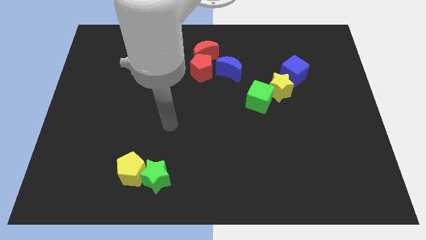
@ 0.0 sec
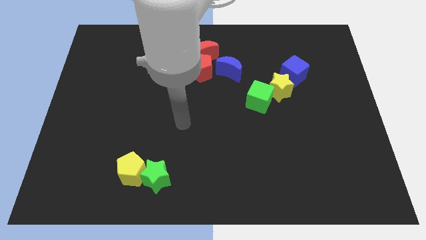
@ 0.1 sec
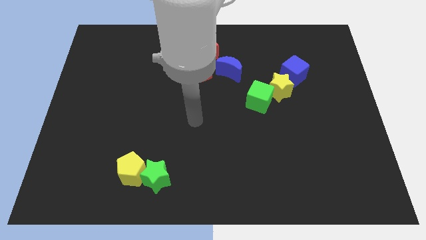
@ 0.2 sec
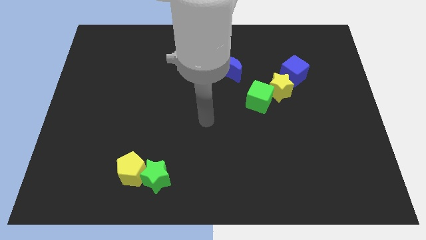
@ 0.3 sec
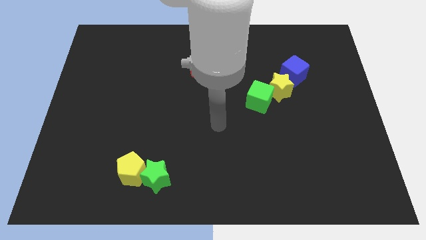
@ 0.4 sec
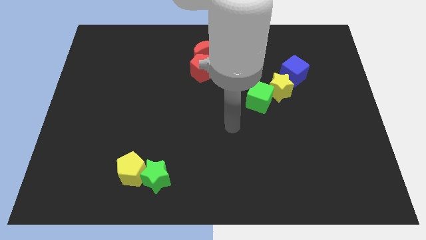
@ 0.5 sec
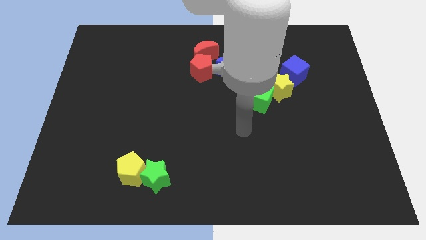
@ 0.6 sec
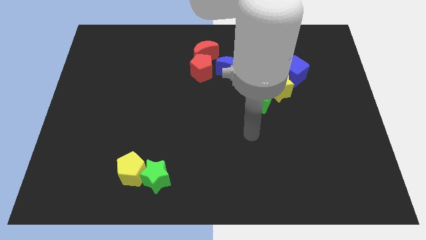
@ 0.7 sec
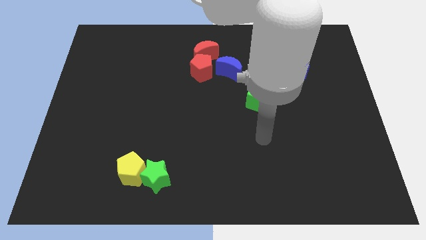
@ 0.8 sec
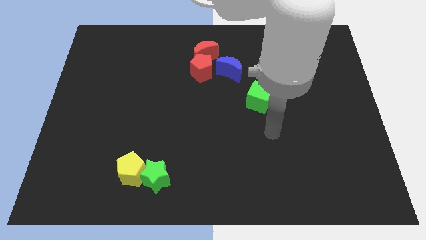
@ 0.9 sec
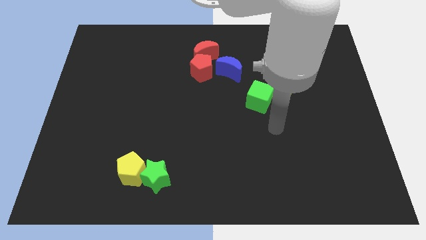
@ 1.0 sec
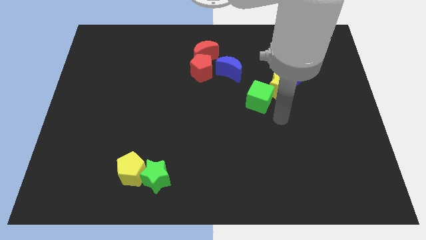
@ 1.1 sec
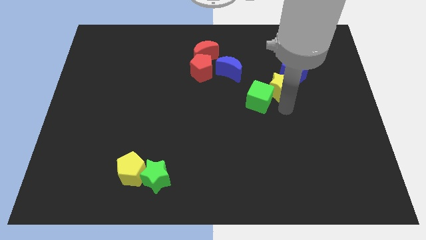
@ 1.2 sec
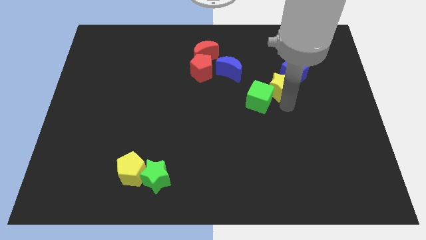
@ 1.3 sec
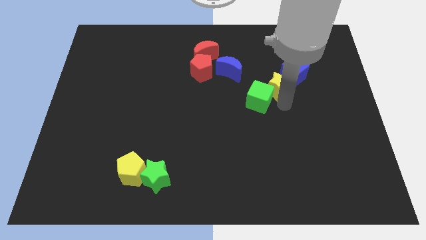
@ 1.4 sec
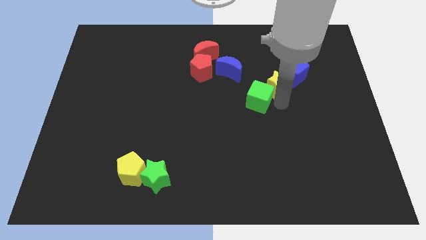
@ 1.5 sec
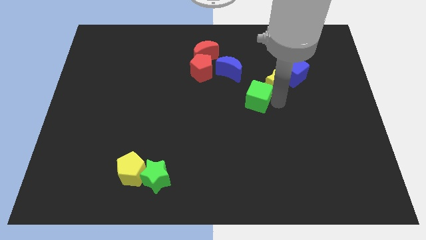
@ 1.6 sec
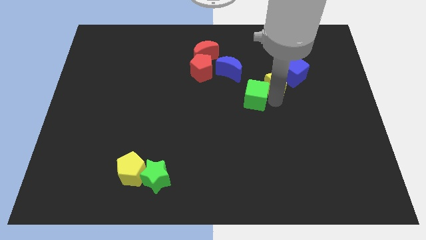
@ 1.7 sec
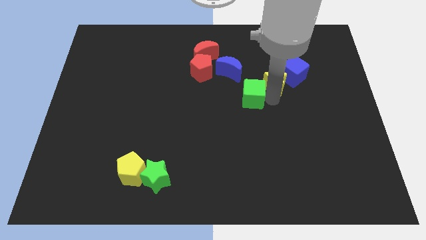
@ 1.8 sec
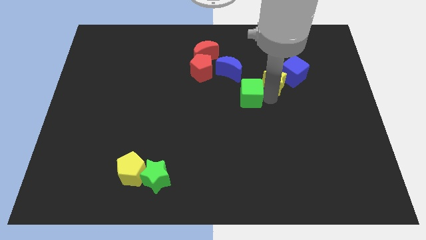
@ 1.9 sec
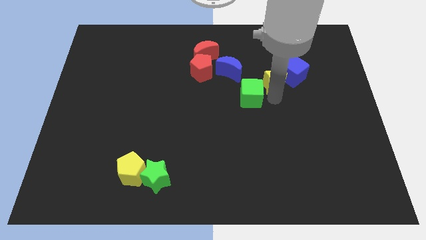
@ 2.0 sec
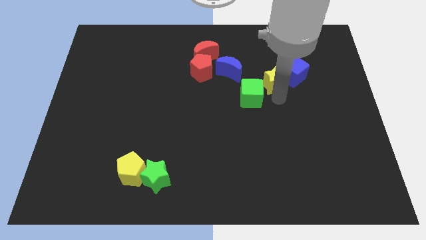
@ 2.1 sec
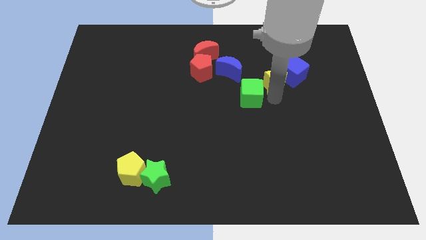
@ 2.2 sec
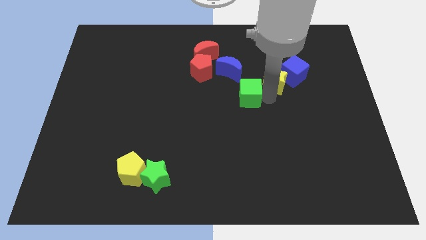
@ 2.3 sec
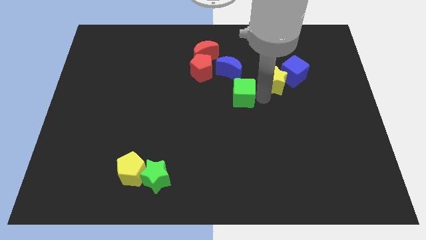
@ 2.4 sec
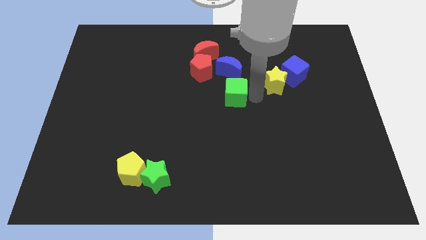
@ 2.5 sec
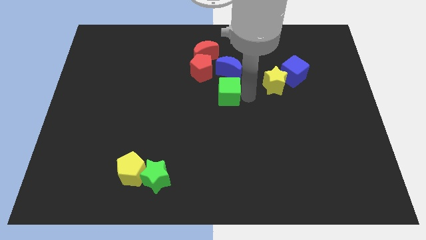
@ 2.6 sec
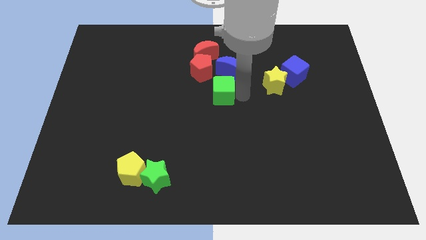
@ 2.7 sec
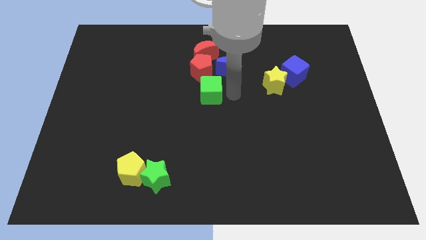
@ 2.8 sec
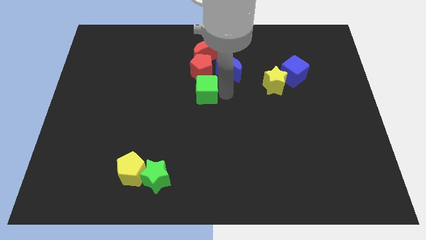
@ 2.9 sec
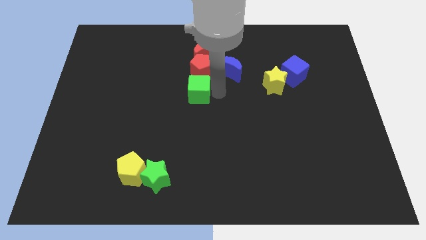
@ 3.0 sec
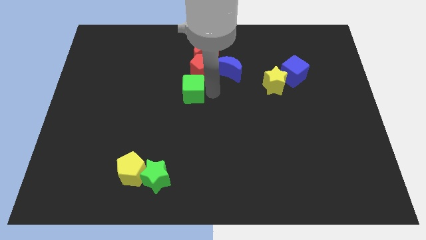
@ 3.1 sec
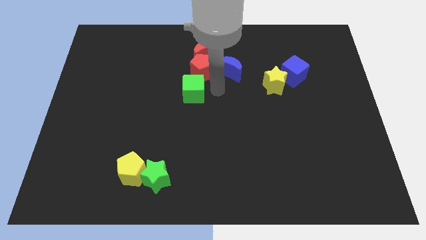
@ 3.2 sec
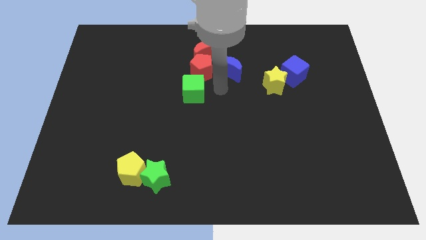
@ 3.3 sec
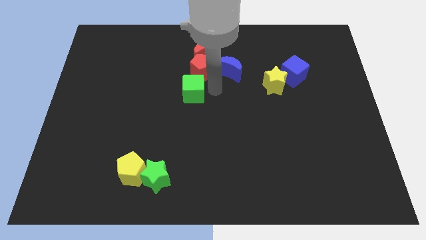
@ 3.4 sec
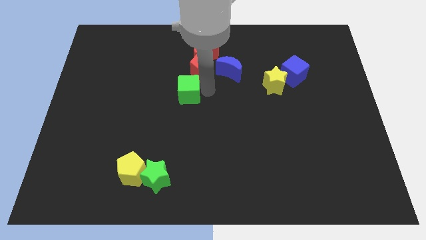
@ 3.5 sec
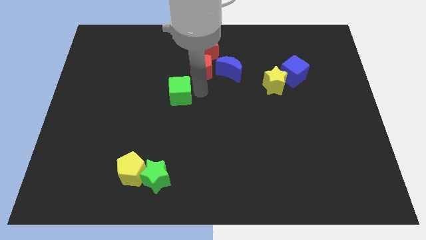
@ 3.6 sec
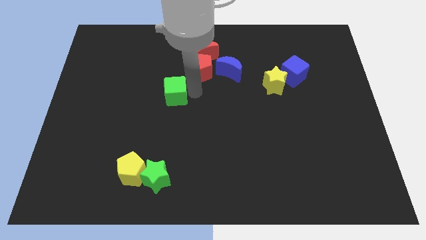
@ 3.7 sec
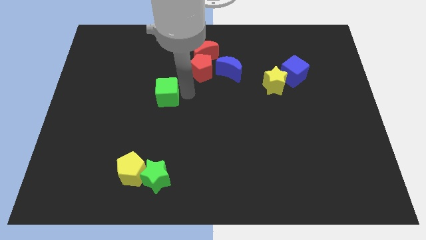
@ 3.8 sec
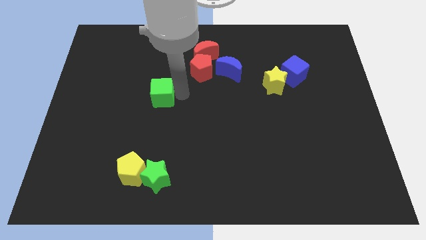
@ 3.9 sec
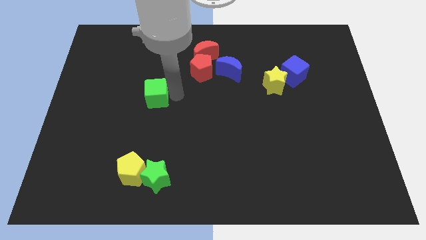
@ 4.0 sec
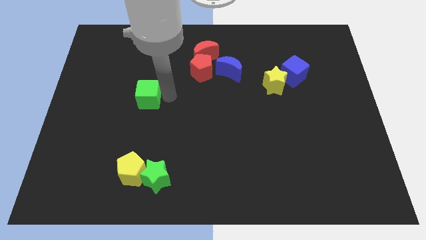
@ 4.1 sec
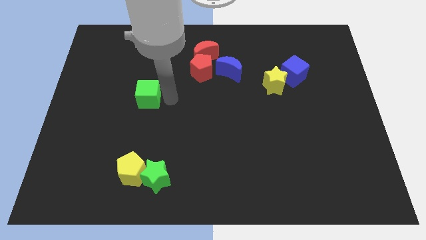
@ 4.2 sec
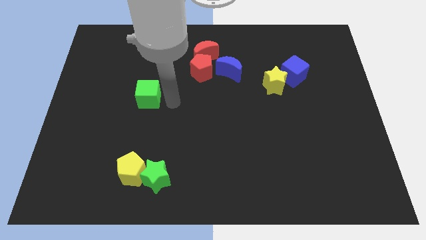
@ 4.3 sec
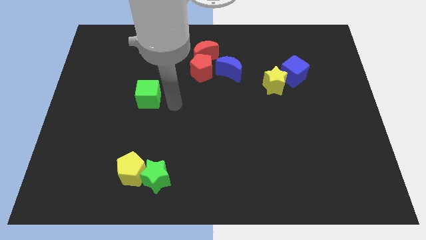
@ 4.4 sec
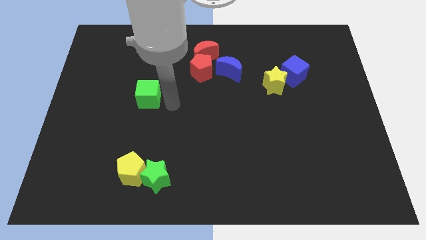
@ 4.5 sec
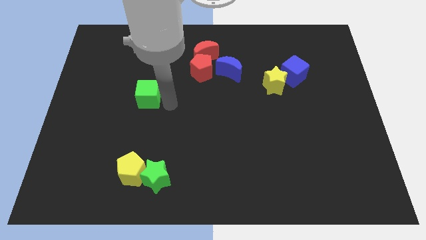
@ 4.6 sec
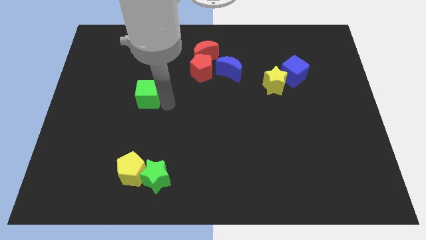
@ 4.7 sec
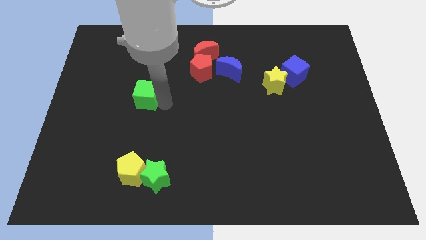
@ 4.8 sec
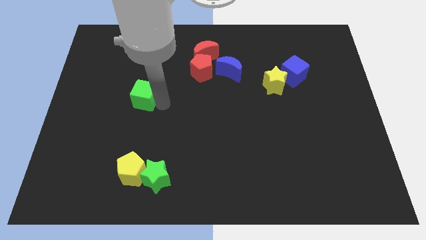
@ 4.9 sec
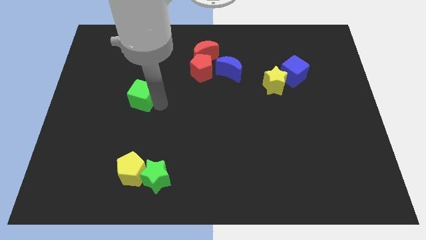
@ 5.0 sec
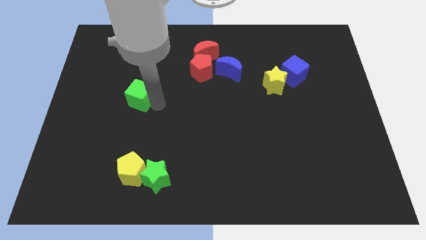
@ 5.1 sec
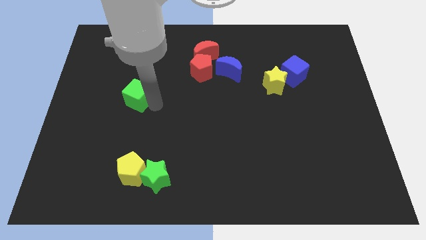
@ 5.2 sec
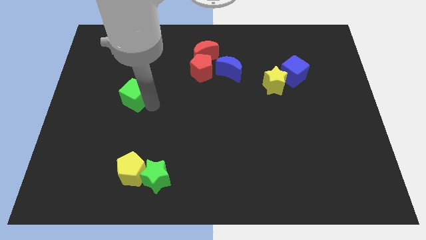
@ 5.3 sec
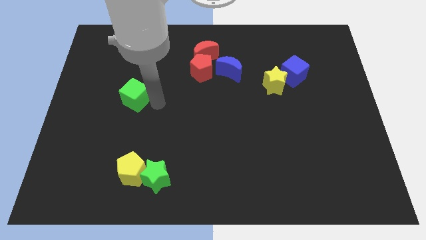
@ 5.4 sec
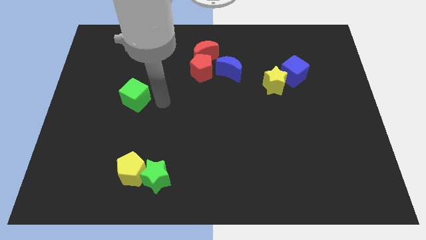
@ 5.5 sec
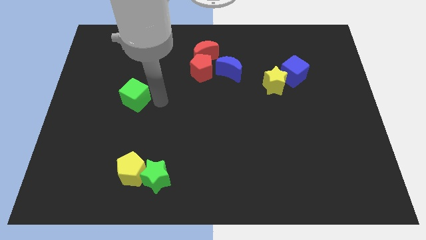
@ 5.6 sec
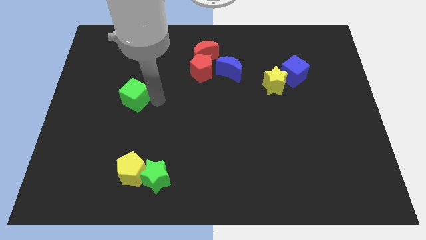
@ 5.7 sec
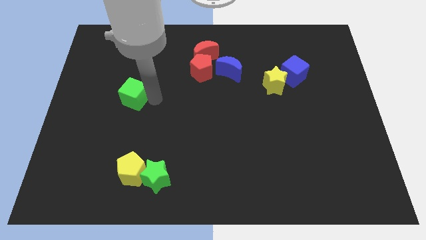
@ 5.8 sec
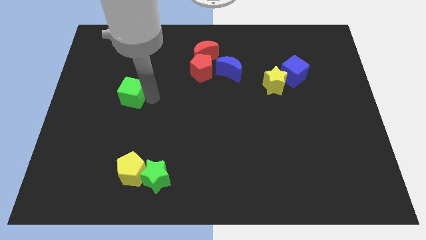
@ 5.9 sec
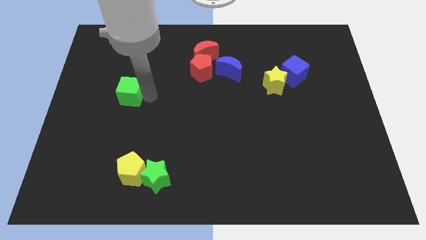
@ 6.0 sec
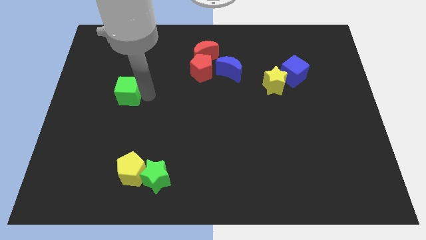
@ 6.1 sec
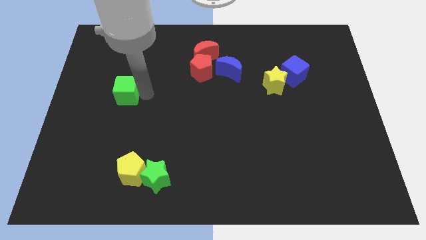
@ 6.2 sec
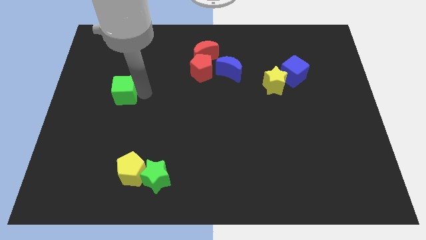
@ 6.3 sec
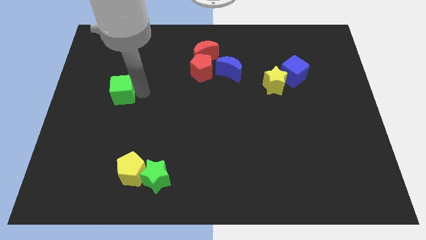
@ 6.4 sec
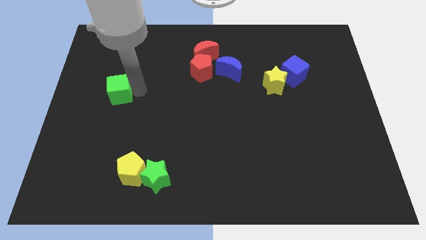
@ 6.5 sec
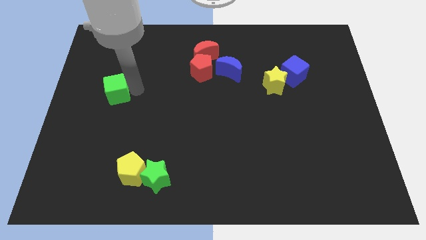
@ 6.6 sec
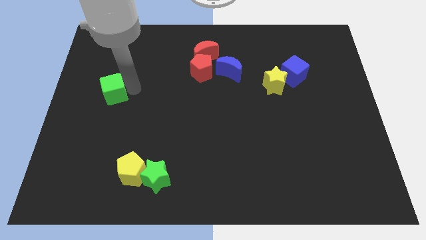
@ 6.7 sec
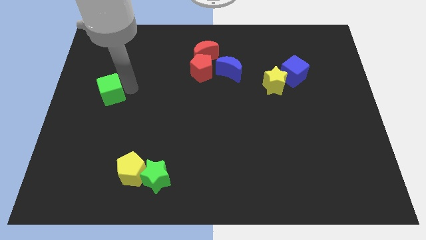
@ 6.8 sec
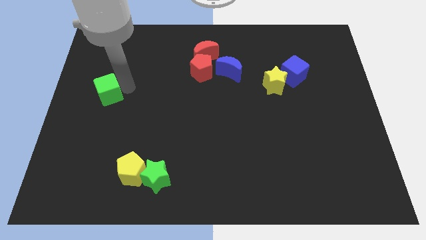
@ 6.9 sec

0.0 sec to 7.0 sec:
push the green cube to the left side of the board
